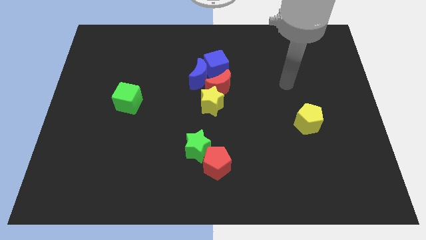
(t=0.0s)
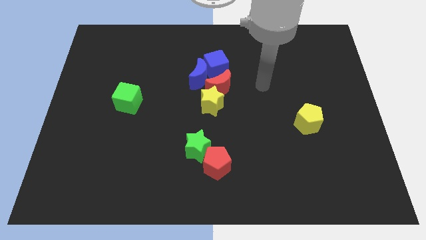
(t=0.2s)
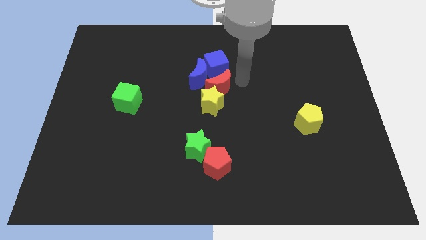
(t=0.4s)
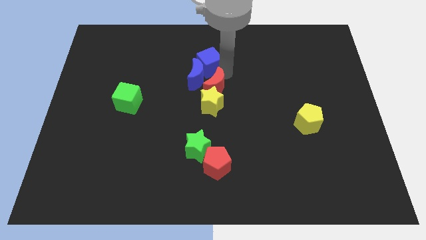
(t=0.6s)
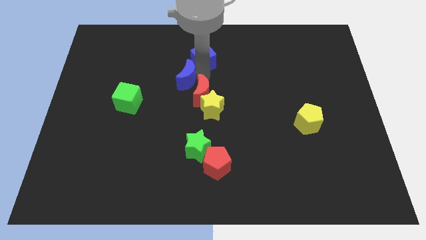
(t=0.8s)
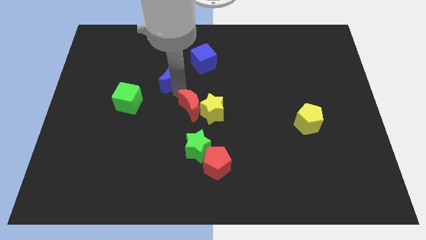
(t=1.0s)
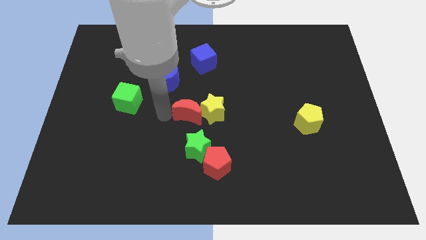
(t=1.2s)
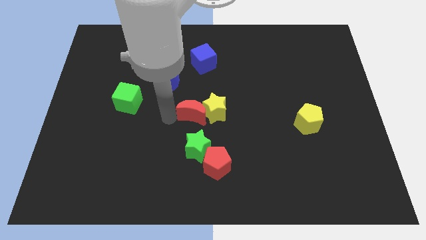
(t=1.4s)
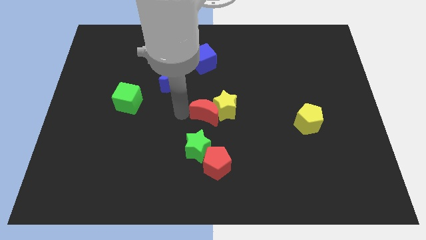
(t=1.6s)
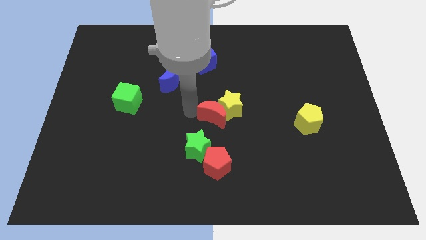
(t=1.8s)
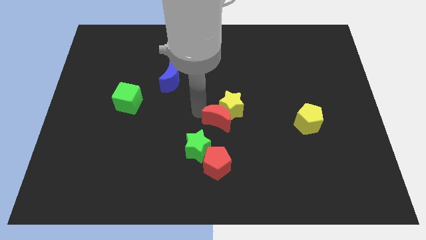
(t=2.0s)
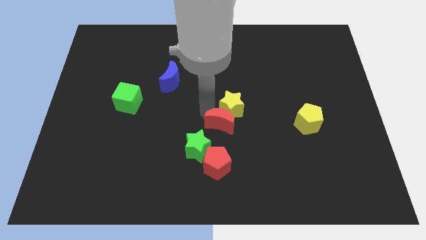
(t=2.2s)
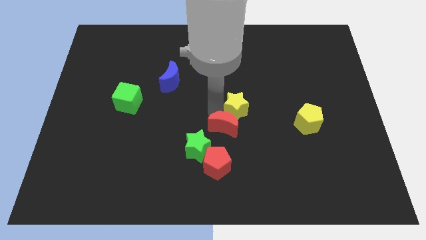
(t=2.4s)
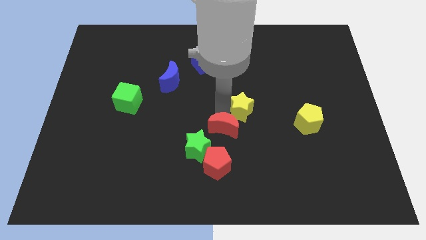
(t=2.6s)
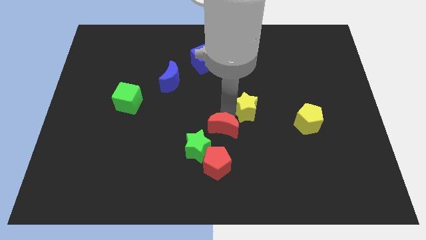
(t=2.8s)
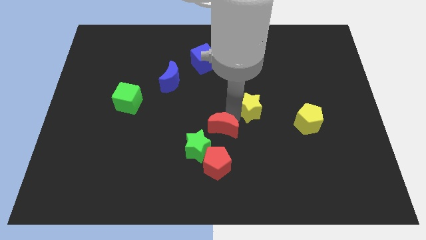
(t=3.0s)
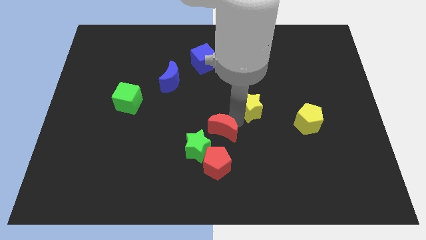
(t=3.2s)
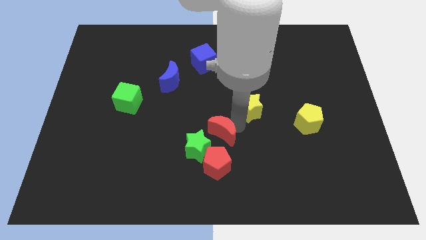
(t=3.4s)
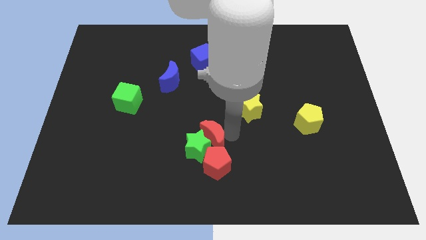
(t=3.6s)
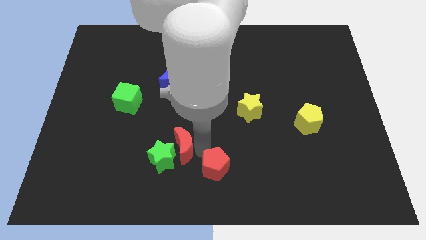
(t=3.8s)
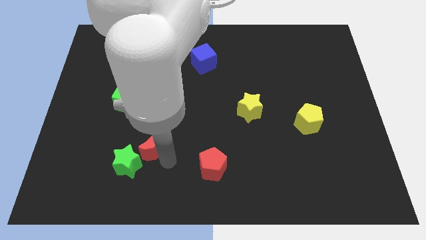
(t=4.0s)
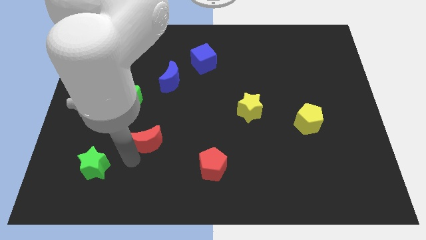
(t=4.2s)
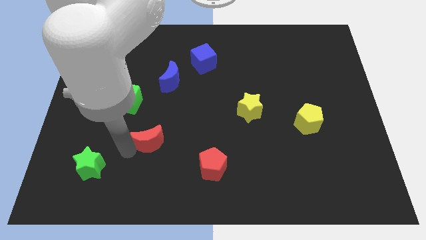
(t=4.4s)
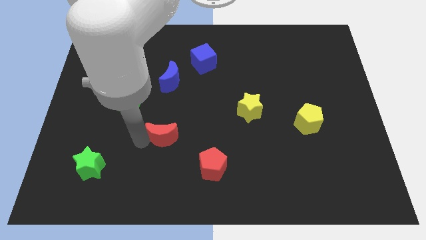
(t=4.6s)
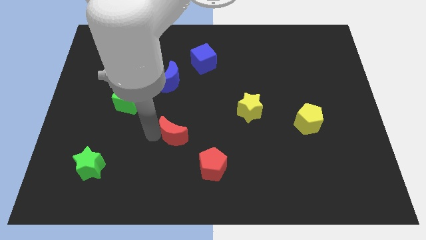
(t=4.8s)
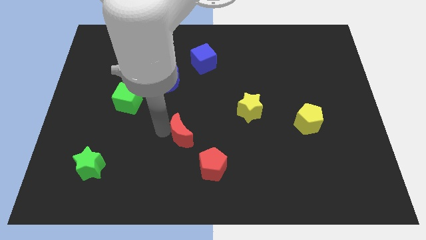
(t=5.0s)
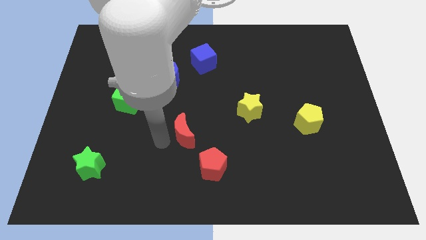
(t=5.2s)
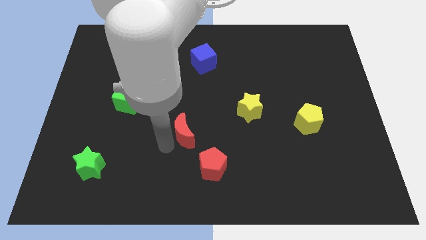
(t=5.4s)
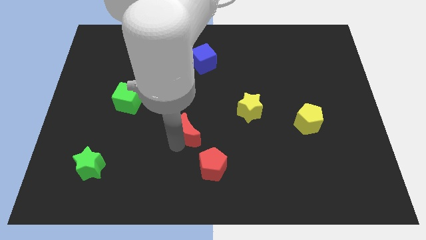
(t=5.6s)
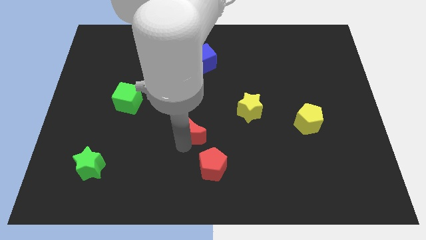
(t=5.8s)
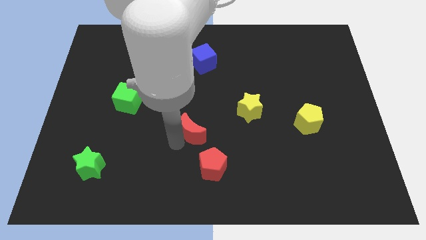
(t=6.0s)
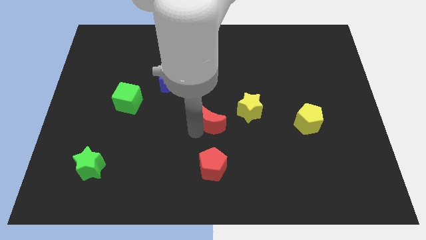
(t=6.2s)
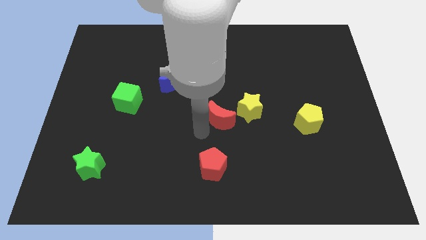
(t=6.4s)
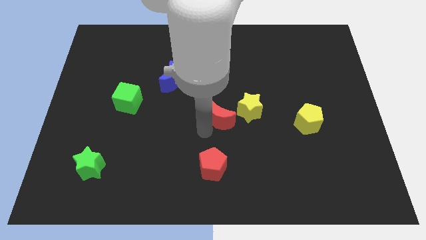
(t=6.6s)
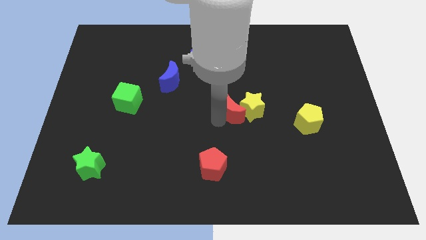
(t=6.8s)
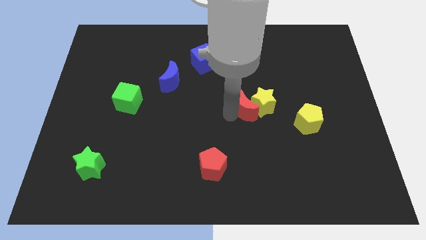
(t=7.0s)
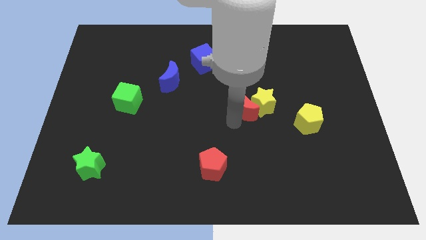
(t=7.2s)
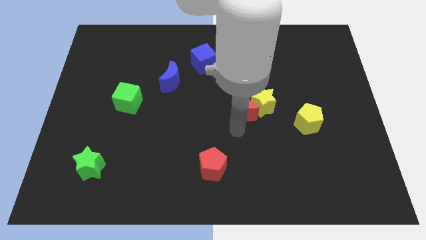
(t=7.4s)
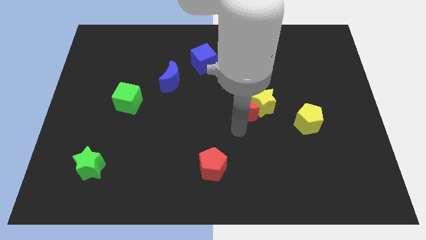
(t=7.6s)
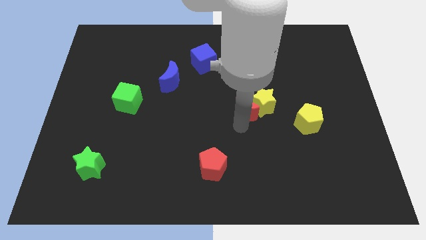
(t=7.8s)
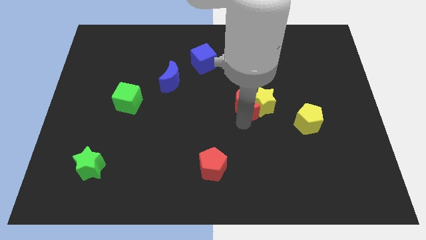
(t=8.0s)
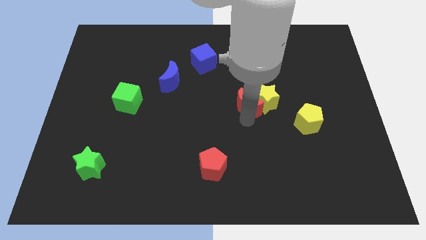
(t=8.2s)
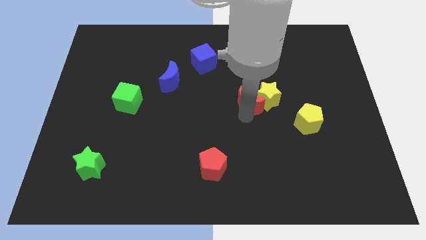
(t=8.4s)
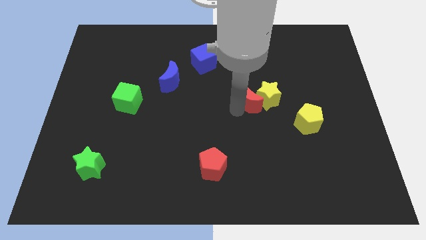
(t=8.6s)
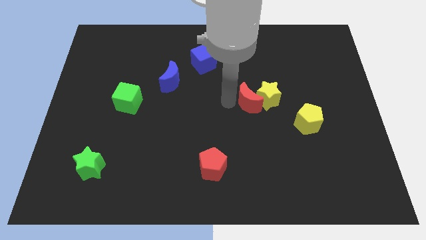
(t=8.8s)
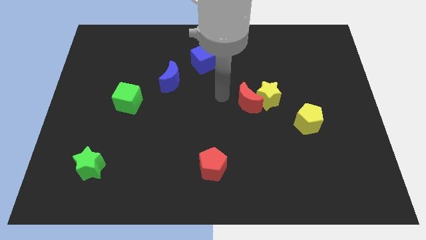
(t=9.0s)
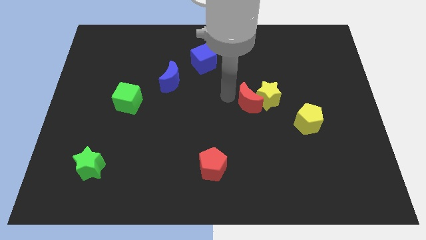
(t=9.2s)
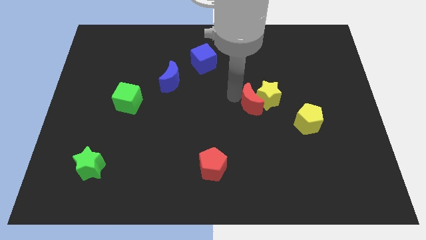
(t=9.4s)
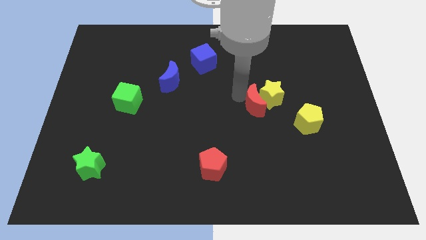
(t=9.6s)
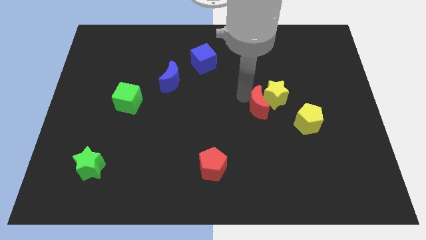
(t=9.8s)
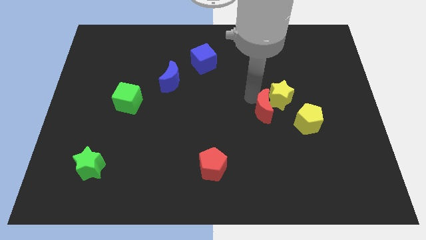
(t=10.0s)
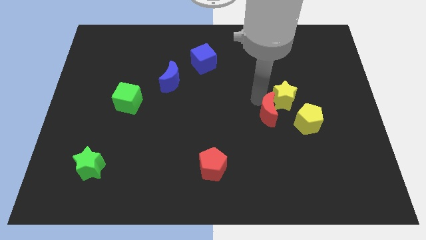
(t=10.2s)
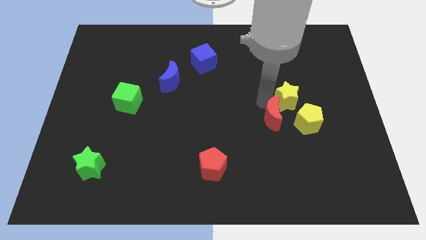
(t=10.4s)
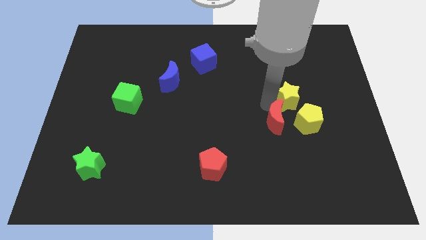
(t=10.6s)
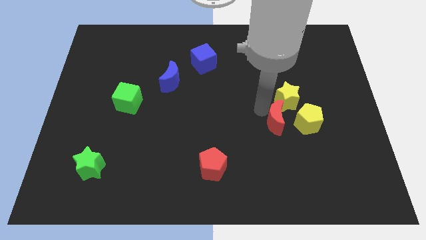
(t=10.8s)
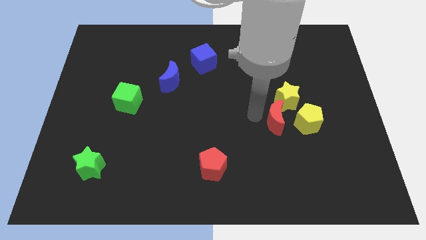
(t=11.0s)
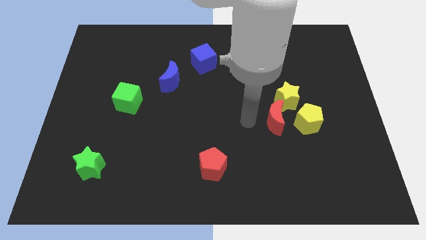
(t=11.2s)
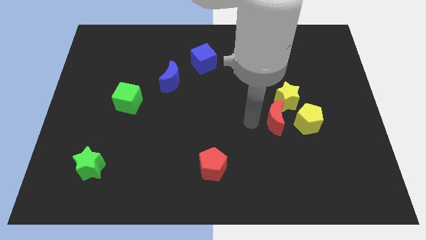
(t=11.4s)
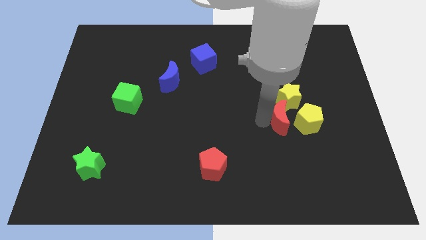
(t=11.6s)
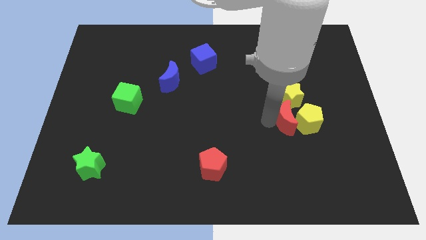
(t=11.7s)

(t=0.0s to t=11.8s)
slide the red moon towards the yellow pentagon

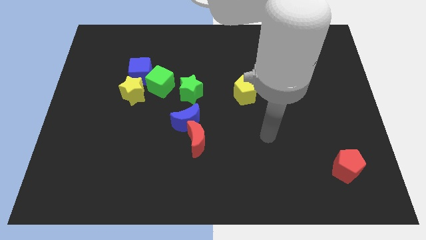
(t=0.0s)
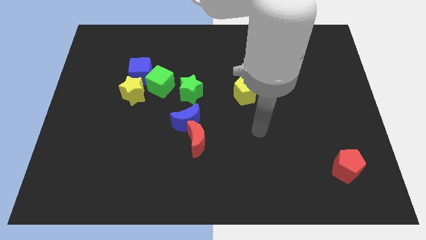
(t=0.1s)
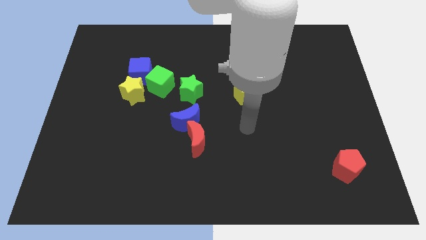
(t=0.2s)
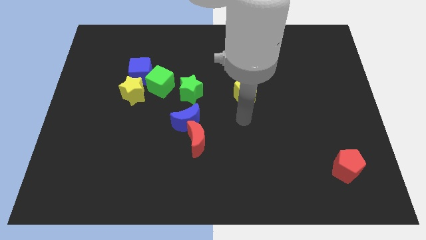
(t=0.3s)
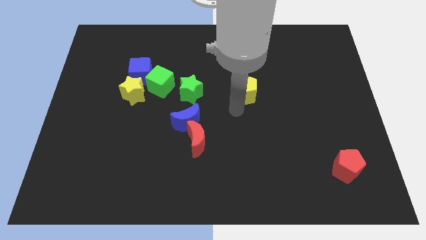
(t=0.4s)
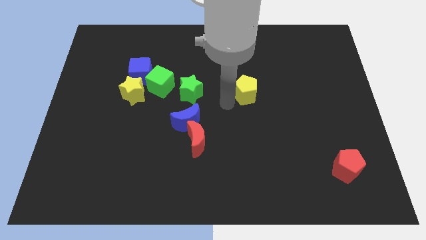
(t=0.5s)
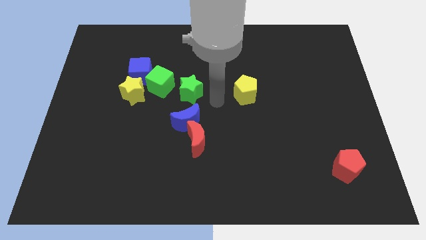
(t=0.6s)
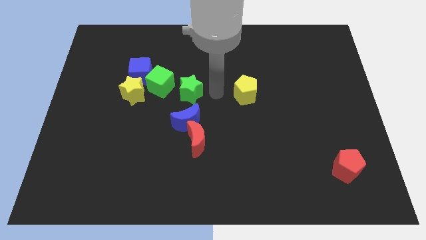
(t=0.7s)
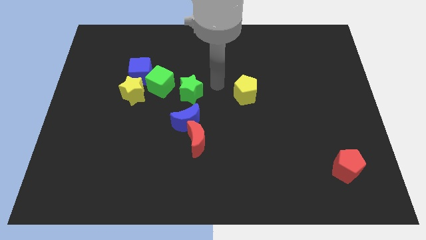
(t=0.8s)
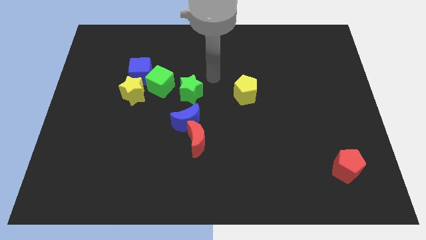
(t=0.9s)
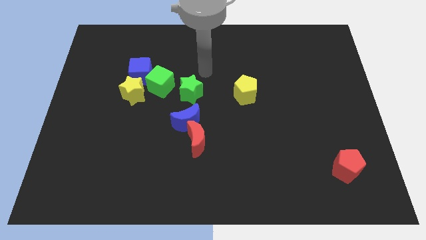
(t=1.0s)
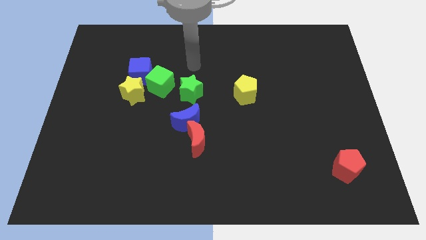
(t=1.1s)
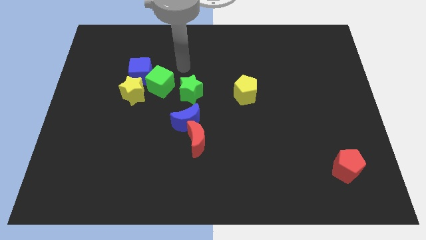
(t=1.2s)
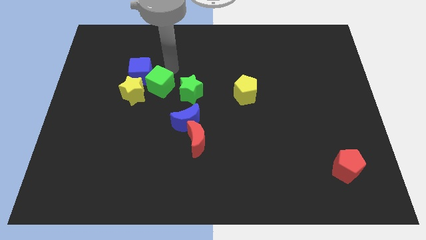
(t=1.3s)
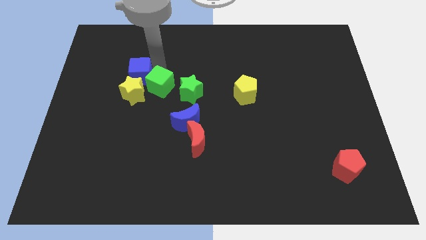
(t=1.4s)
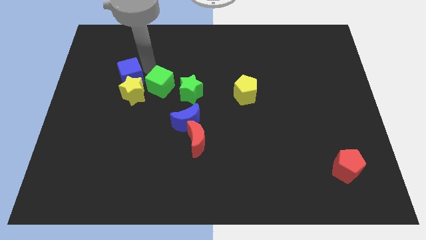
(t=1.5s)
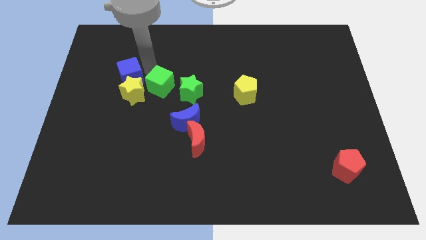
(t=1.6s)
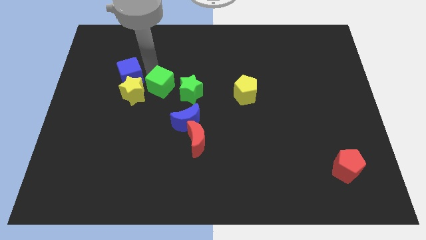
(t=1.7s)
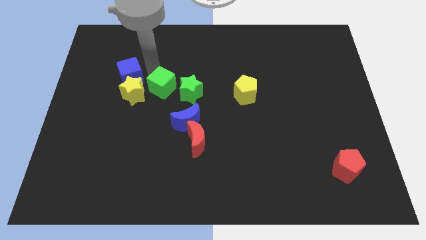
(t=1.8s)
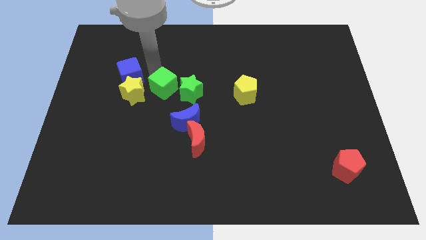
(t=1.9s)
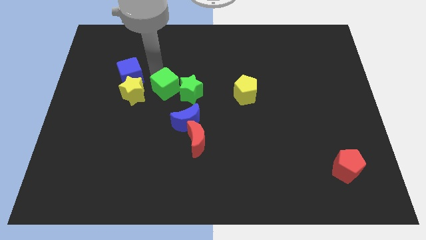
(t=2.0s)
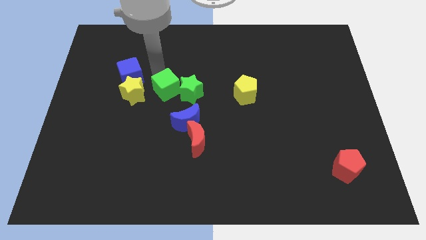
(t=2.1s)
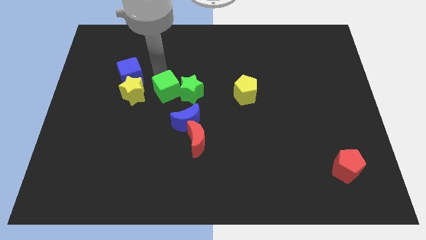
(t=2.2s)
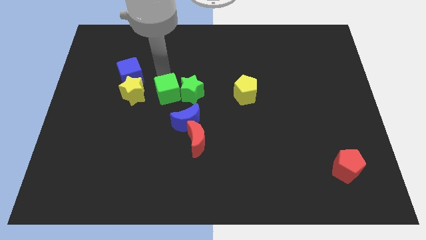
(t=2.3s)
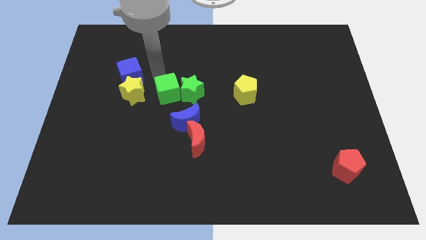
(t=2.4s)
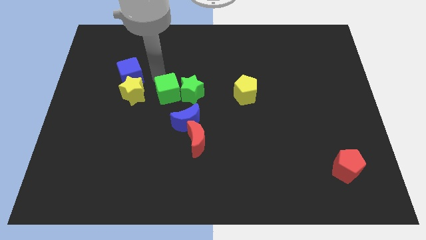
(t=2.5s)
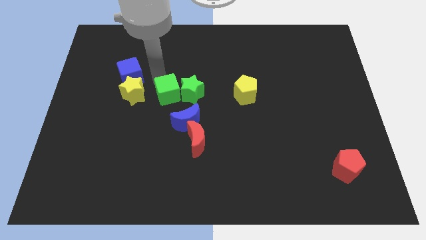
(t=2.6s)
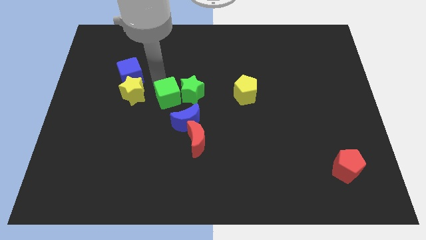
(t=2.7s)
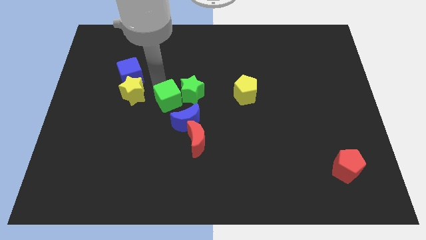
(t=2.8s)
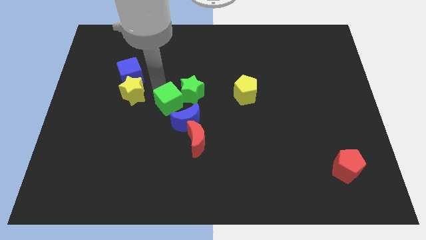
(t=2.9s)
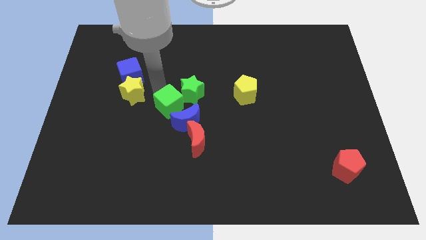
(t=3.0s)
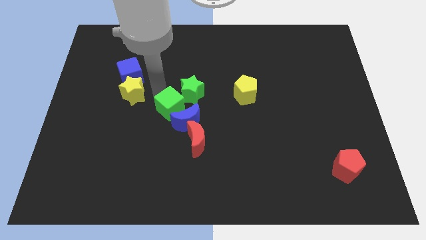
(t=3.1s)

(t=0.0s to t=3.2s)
slide the green cube next to the blue moon
